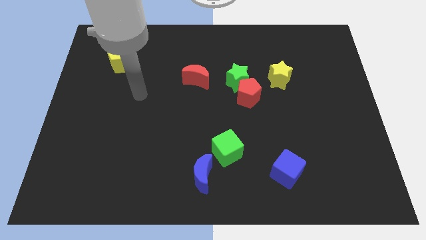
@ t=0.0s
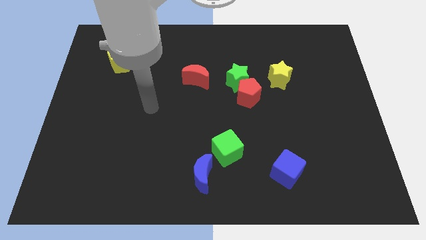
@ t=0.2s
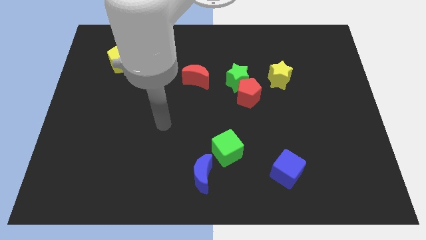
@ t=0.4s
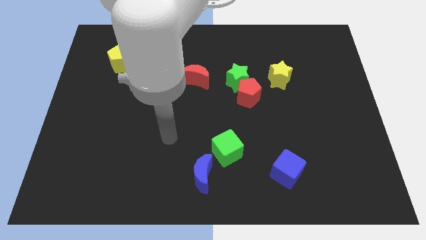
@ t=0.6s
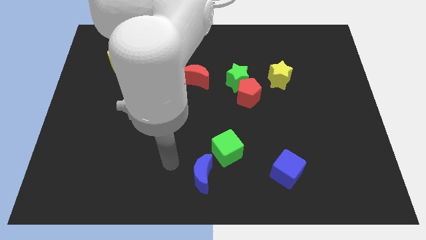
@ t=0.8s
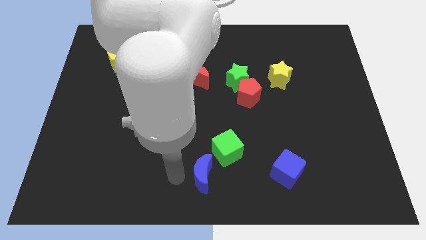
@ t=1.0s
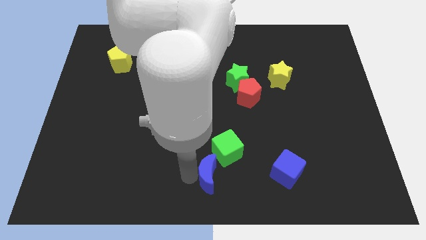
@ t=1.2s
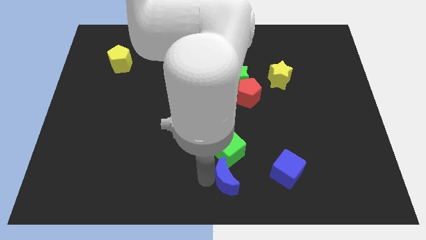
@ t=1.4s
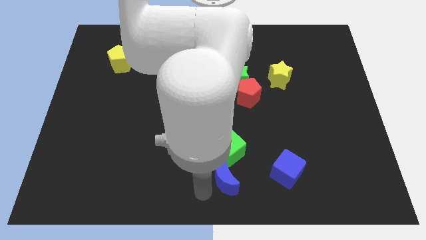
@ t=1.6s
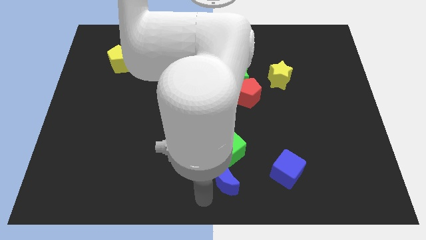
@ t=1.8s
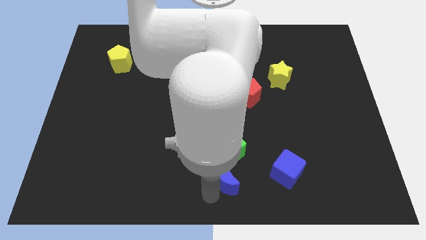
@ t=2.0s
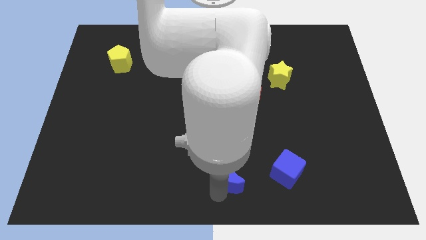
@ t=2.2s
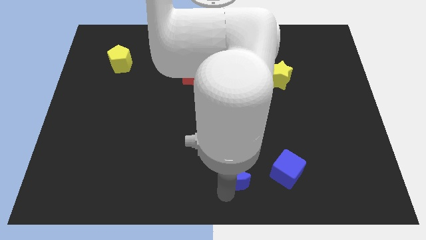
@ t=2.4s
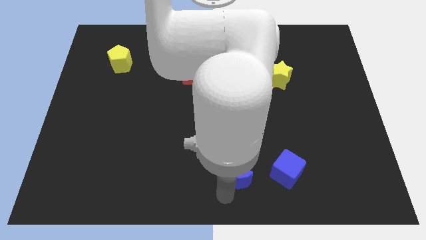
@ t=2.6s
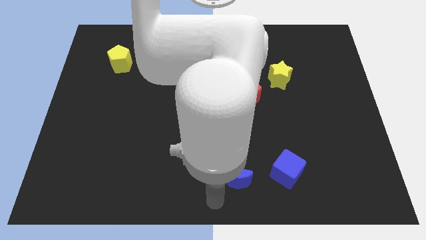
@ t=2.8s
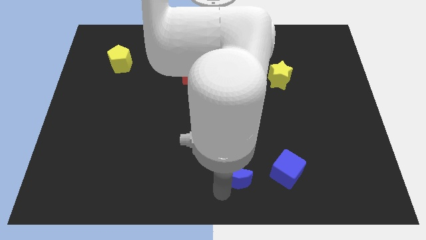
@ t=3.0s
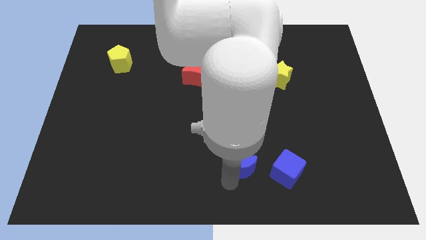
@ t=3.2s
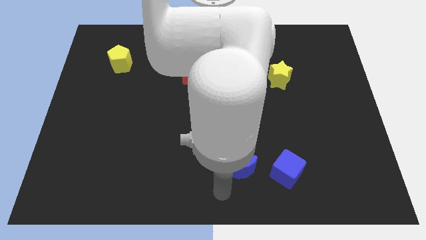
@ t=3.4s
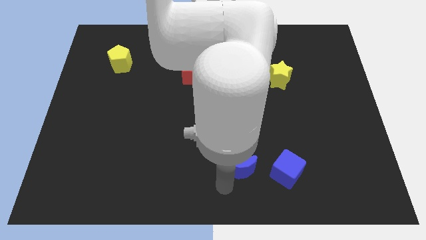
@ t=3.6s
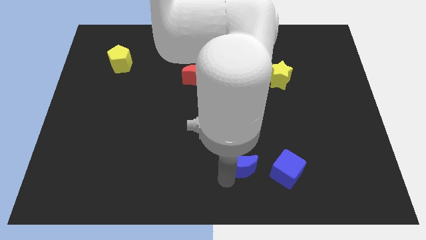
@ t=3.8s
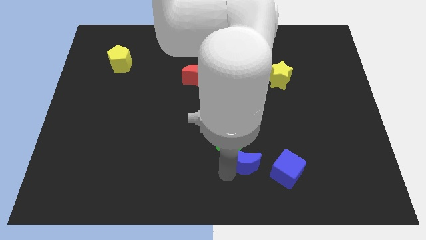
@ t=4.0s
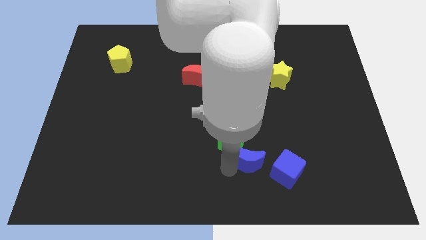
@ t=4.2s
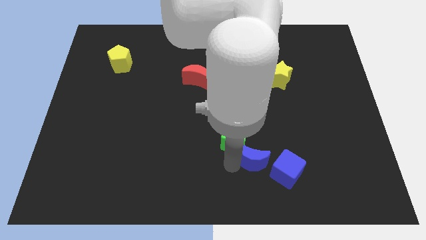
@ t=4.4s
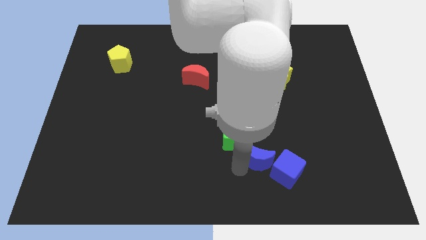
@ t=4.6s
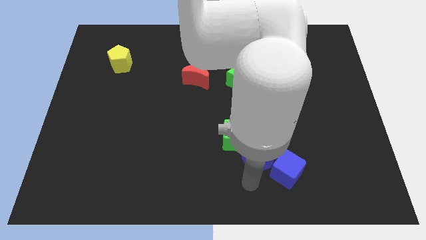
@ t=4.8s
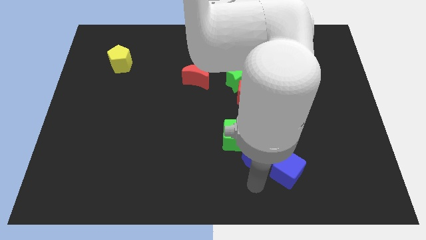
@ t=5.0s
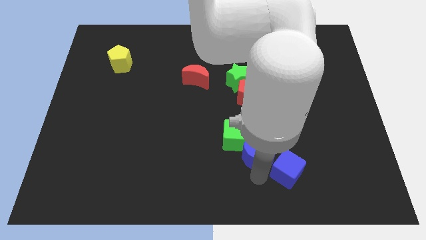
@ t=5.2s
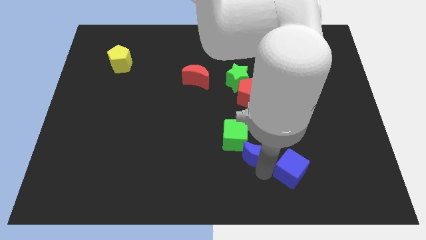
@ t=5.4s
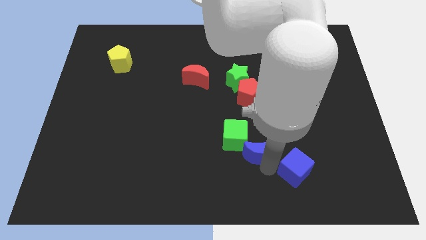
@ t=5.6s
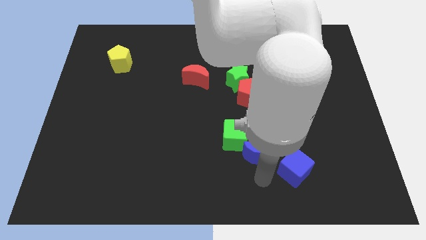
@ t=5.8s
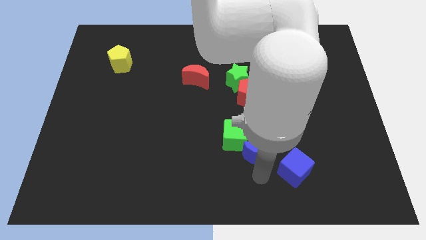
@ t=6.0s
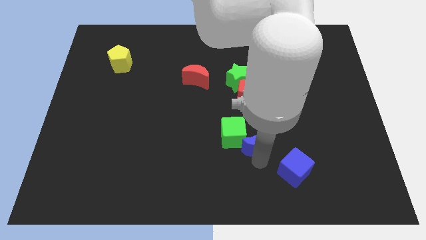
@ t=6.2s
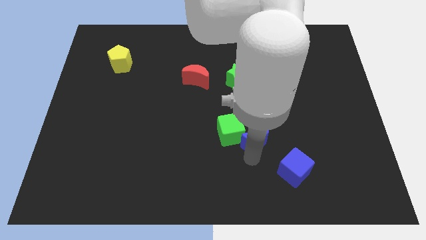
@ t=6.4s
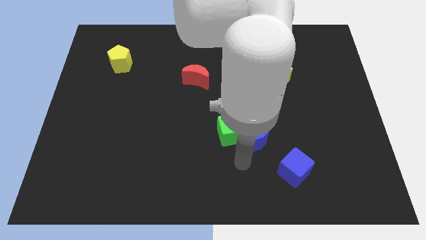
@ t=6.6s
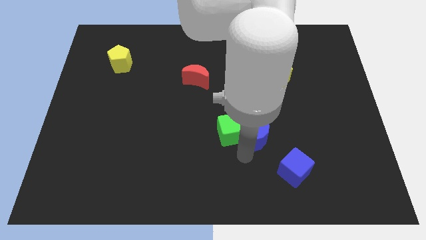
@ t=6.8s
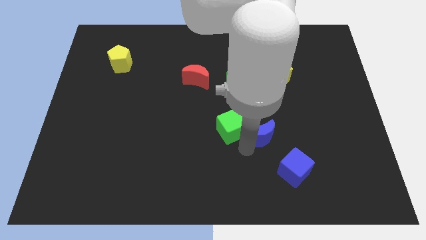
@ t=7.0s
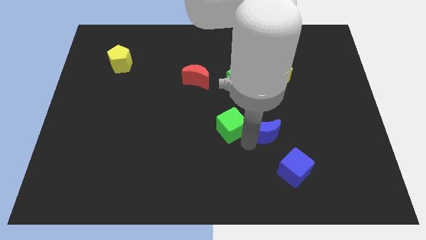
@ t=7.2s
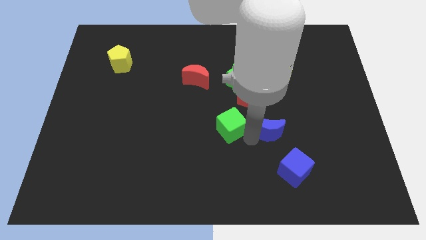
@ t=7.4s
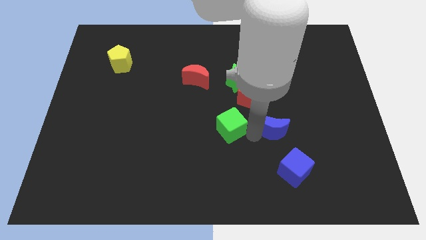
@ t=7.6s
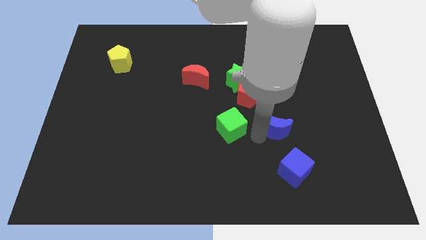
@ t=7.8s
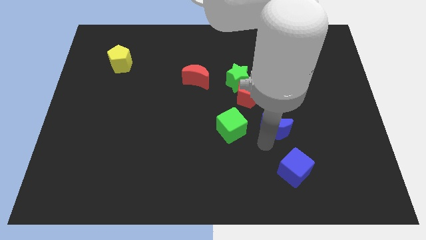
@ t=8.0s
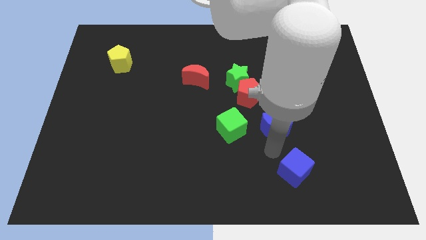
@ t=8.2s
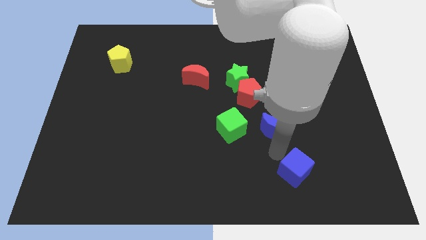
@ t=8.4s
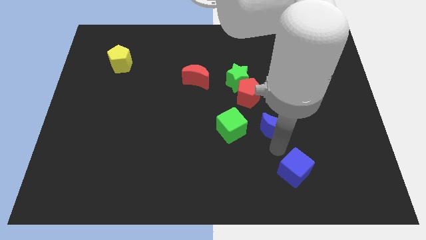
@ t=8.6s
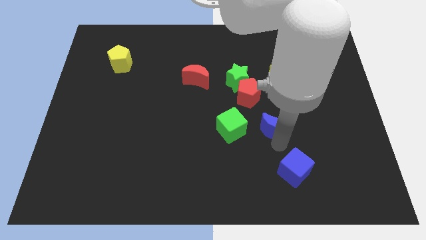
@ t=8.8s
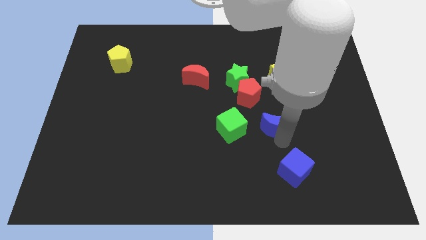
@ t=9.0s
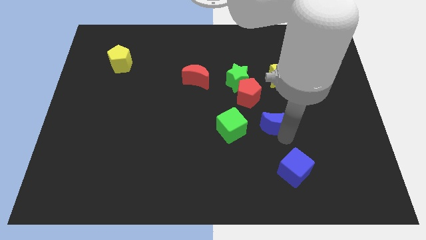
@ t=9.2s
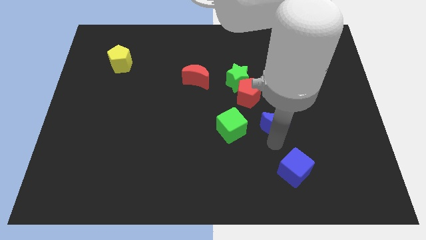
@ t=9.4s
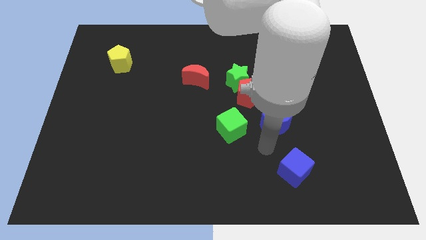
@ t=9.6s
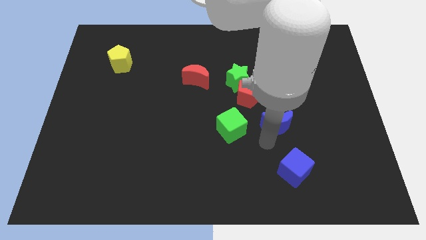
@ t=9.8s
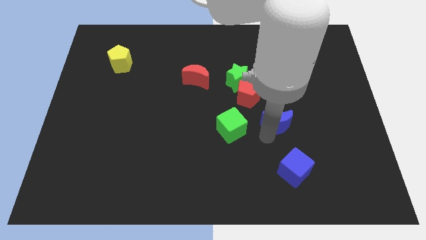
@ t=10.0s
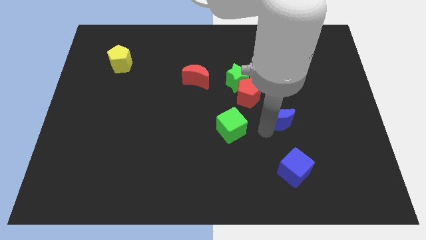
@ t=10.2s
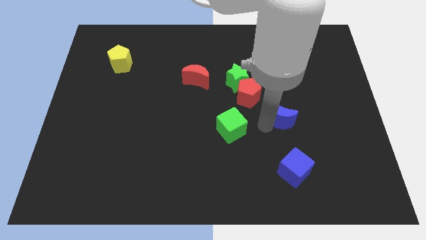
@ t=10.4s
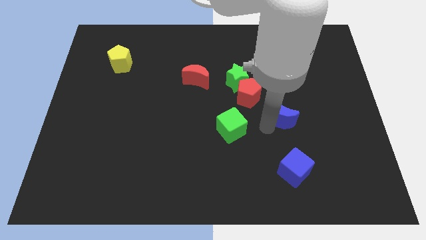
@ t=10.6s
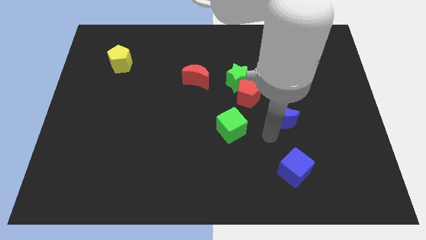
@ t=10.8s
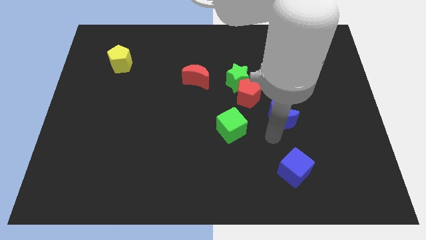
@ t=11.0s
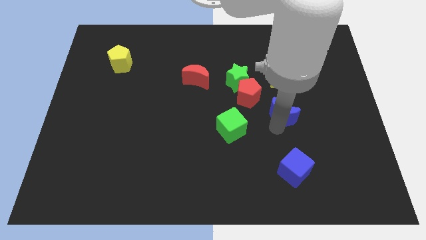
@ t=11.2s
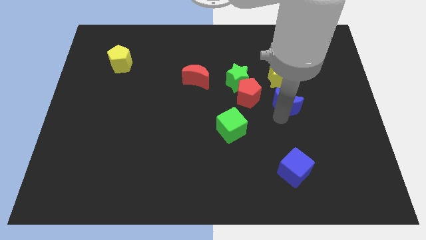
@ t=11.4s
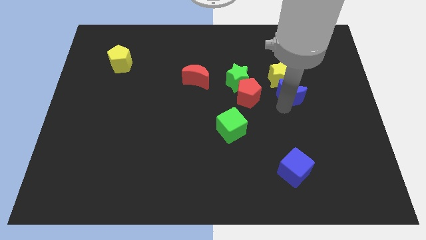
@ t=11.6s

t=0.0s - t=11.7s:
push the blue moon just right of the green star

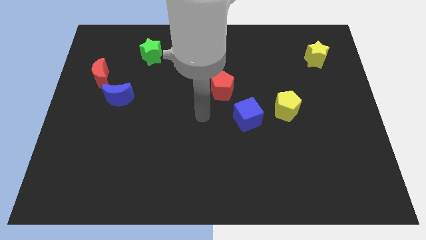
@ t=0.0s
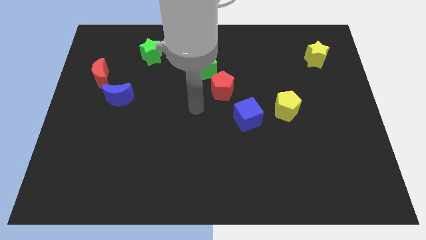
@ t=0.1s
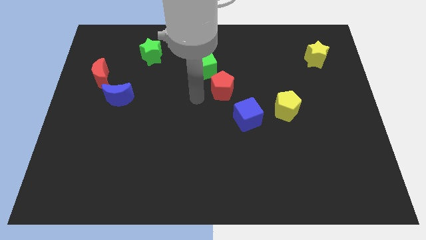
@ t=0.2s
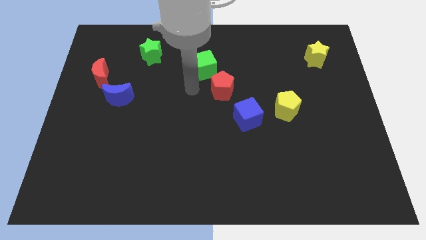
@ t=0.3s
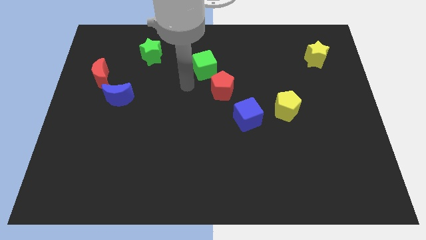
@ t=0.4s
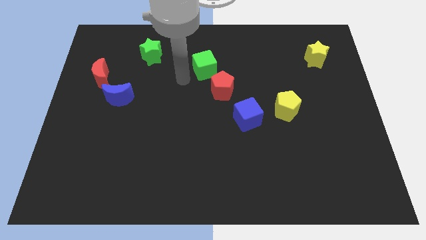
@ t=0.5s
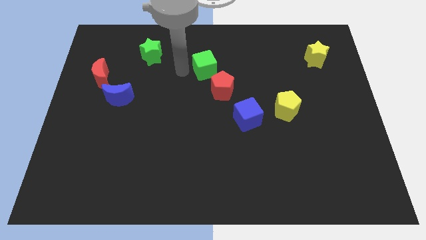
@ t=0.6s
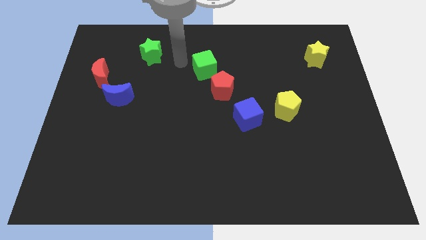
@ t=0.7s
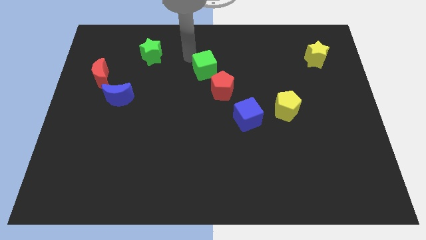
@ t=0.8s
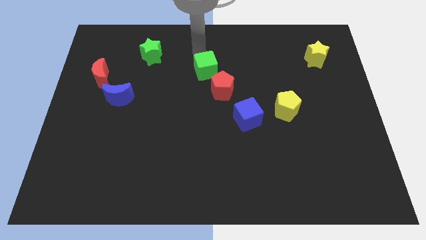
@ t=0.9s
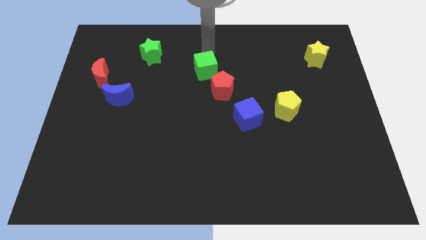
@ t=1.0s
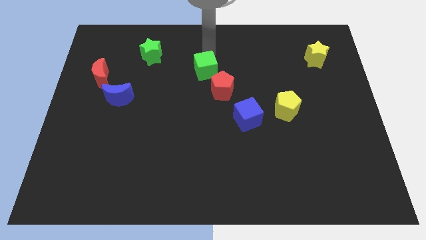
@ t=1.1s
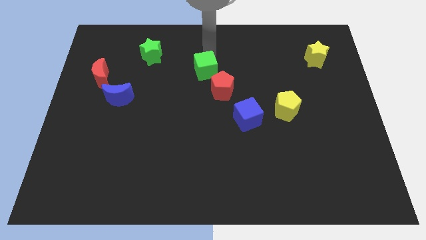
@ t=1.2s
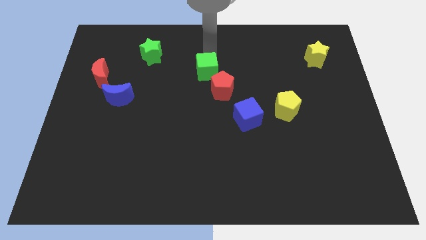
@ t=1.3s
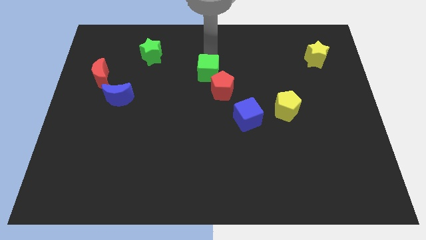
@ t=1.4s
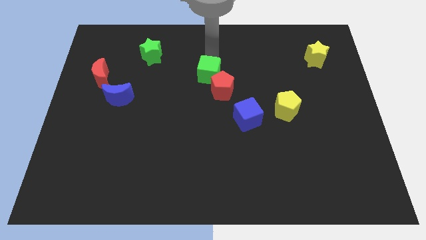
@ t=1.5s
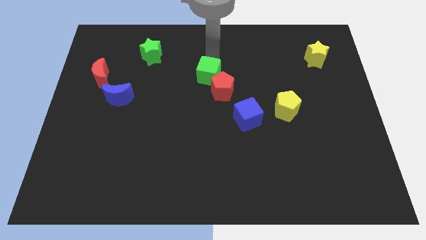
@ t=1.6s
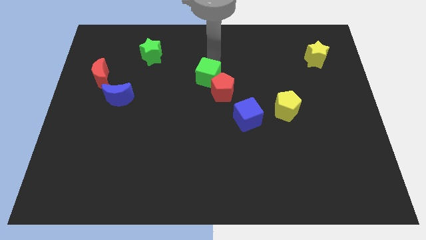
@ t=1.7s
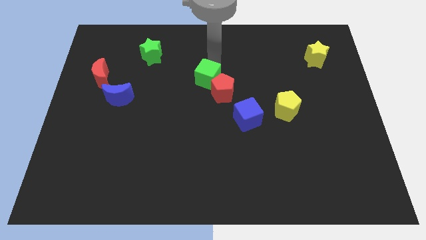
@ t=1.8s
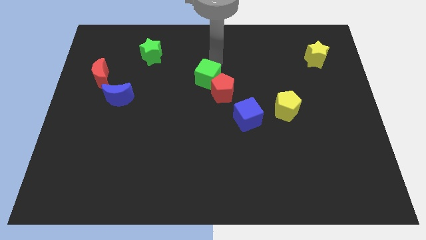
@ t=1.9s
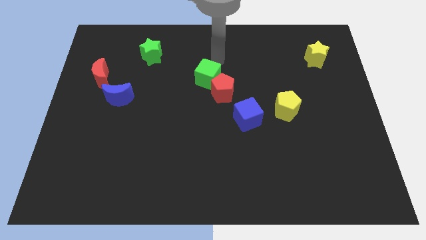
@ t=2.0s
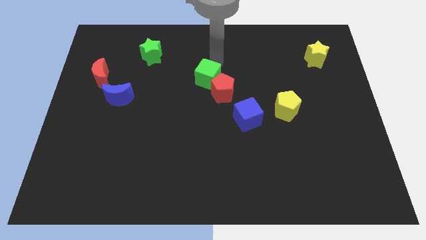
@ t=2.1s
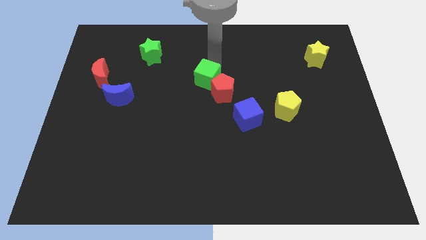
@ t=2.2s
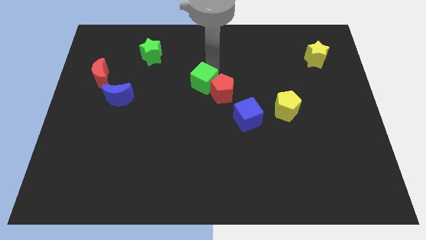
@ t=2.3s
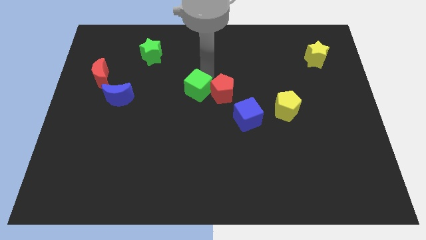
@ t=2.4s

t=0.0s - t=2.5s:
push the green cube to the bottom left of the red pentagon
